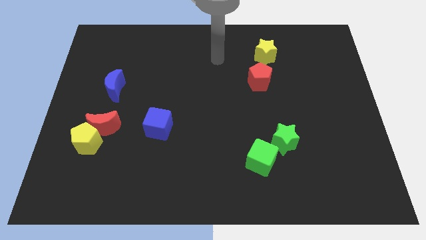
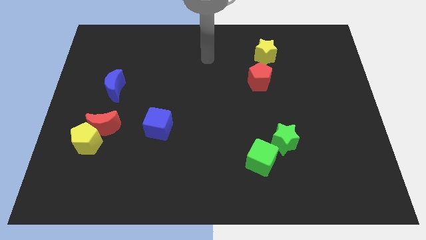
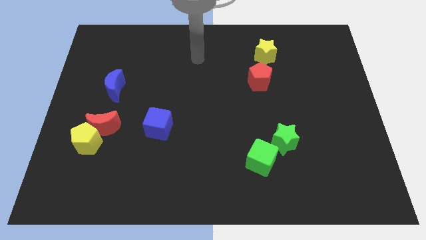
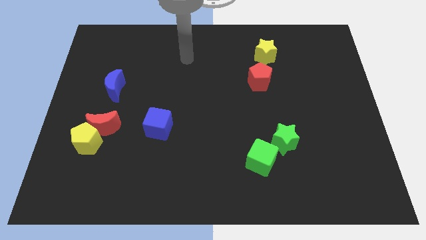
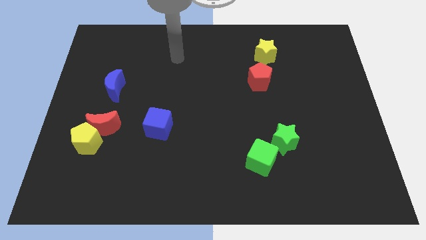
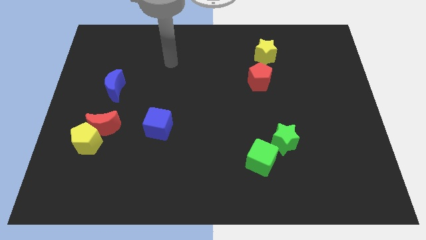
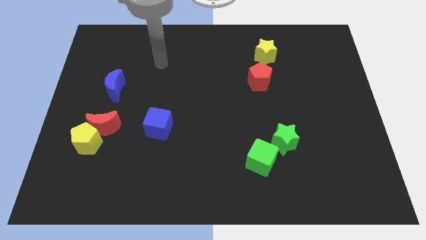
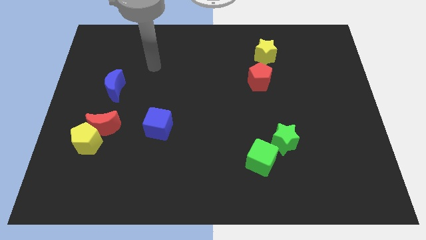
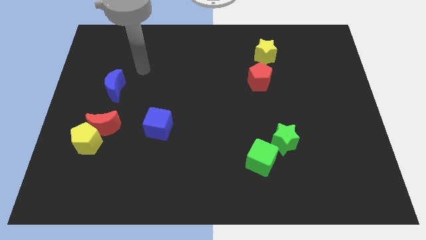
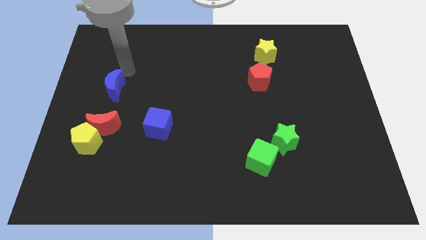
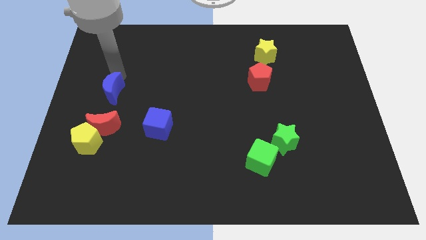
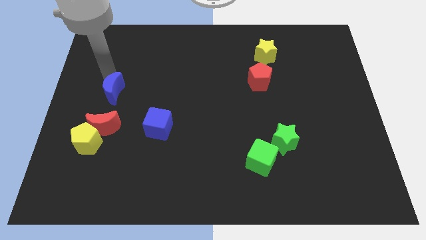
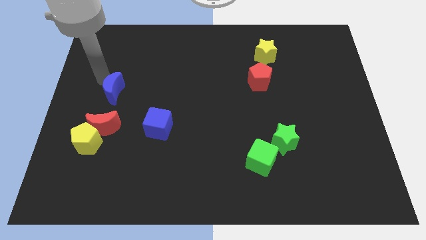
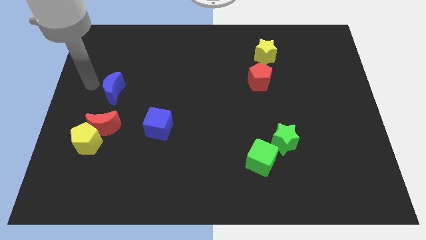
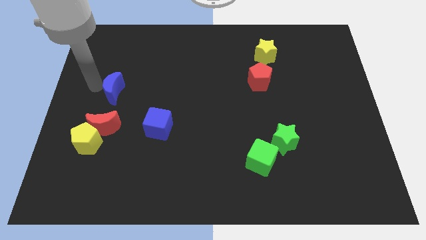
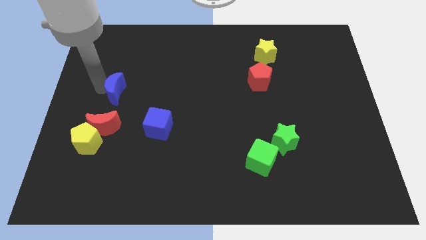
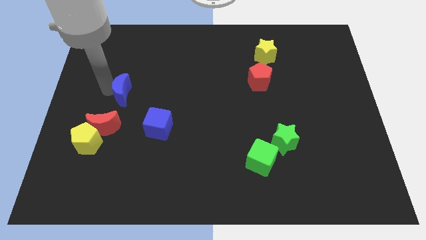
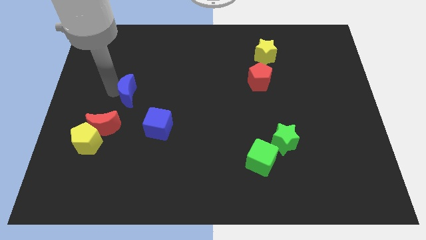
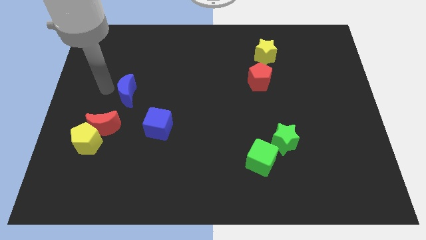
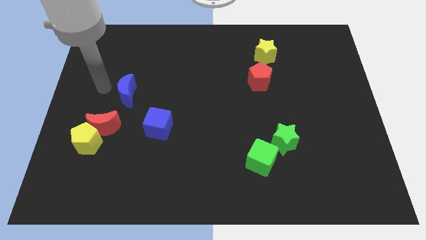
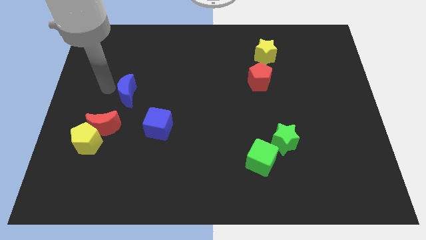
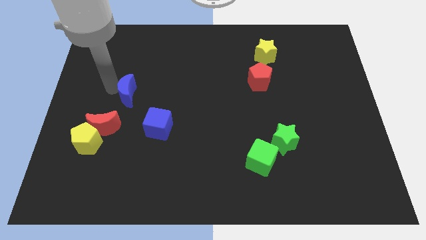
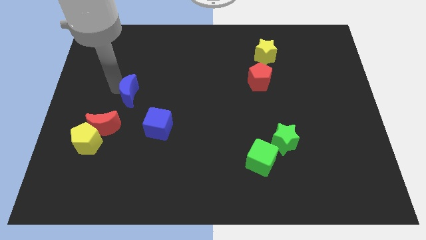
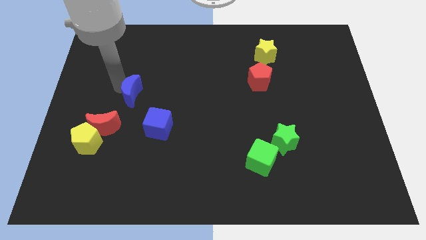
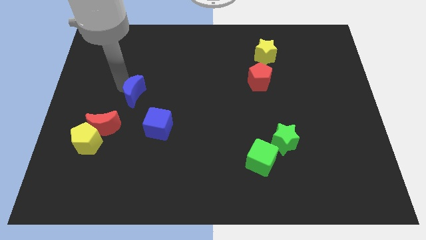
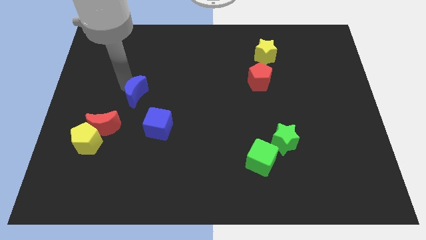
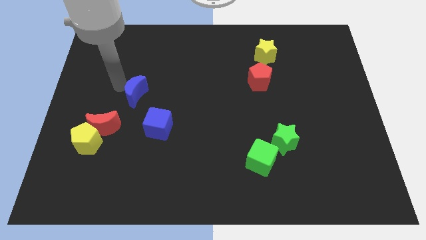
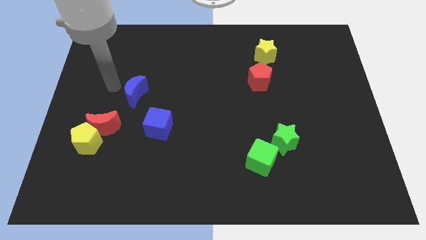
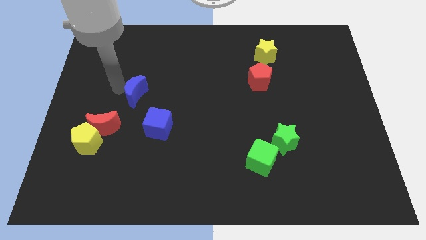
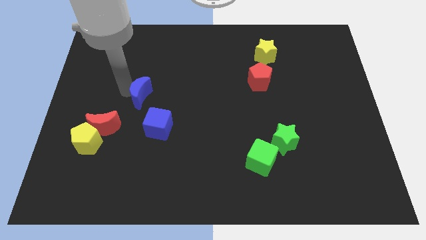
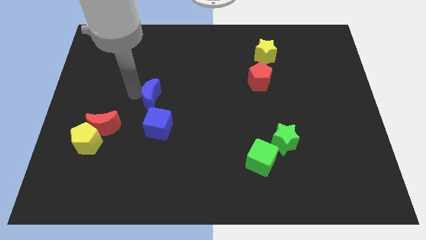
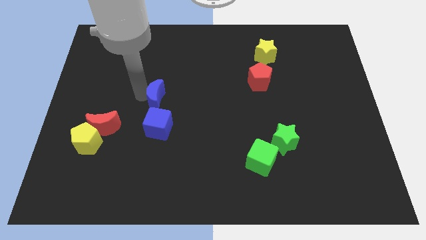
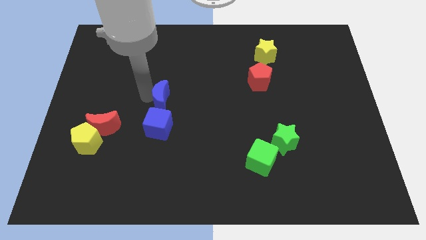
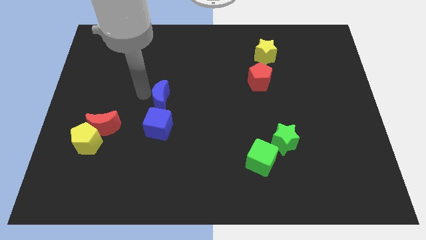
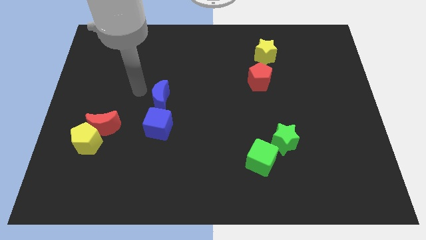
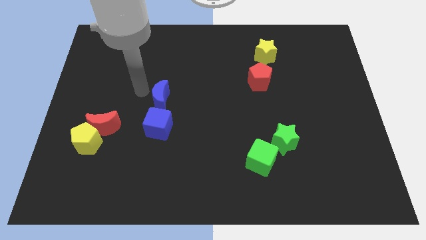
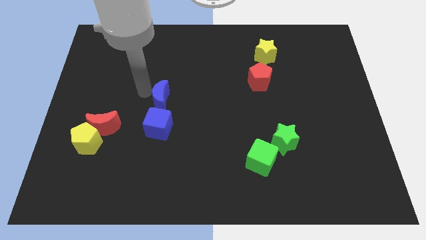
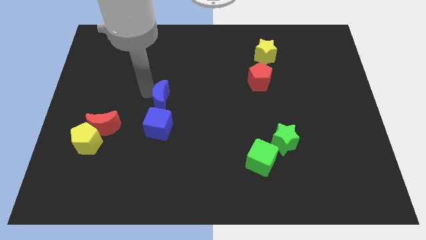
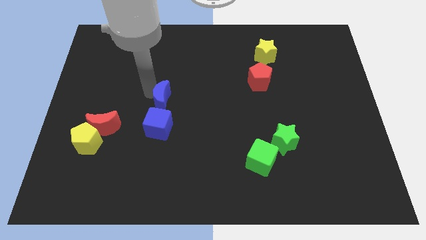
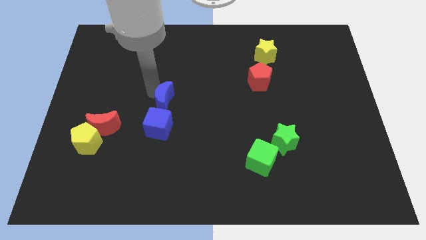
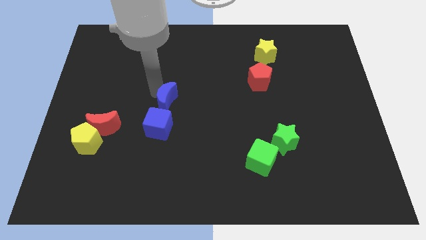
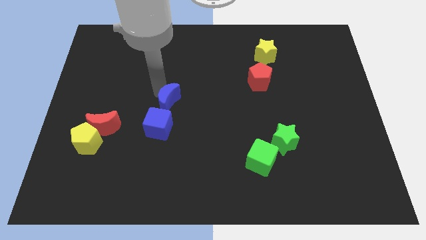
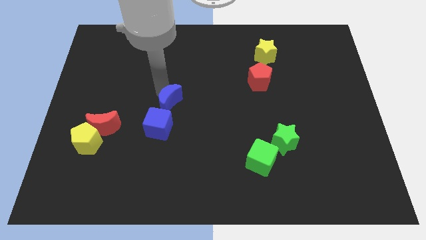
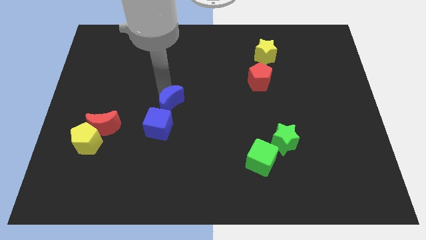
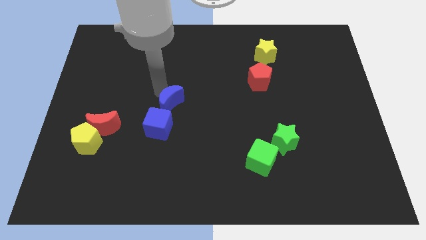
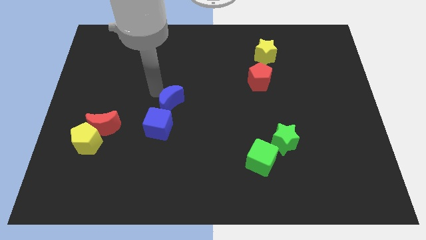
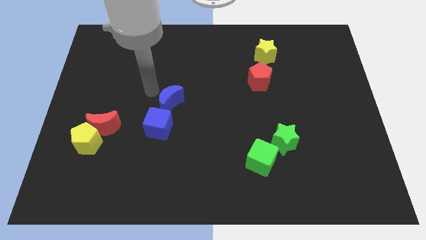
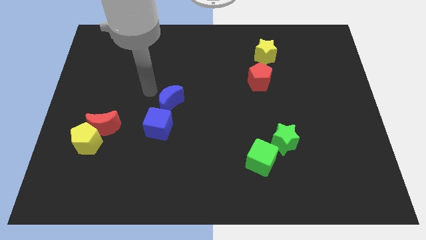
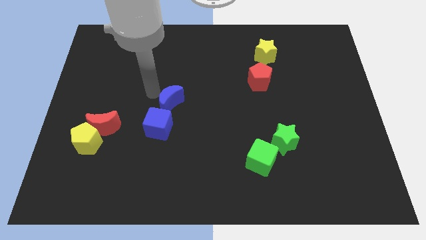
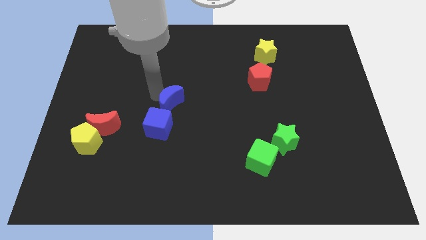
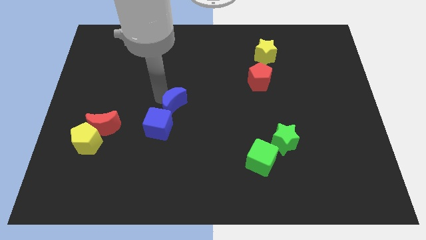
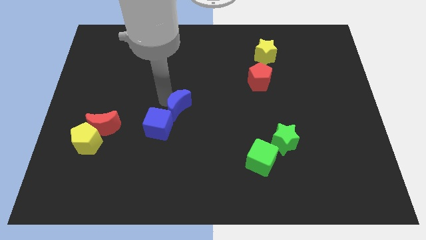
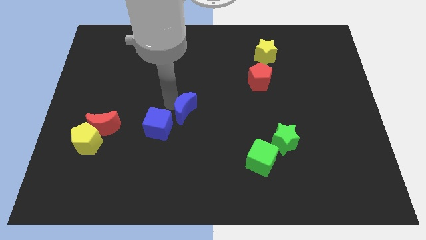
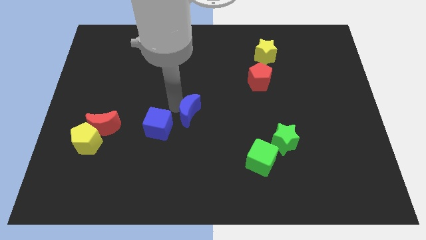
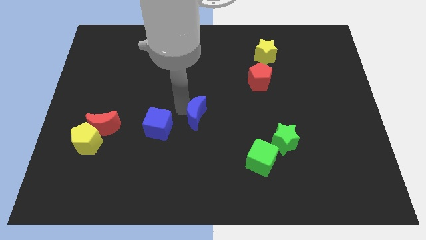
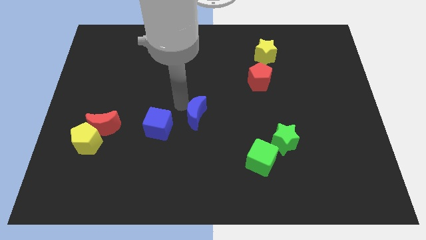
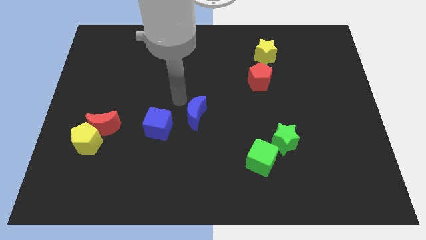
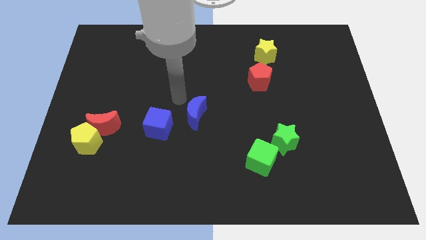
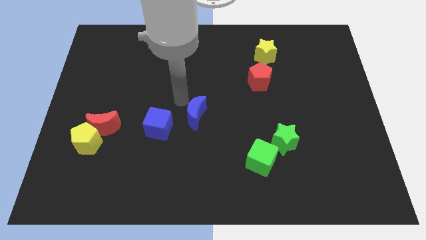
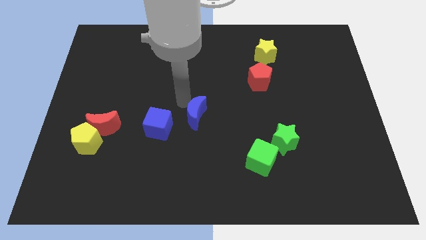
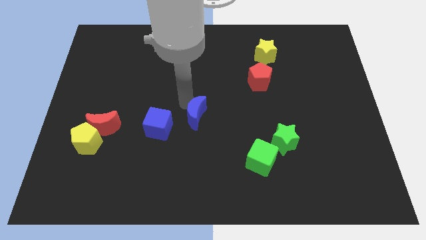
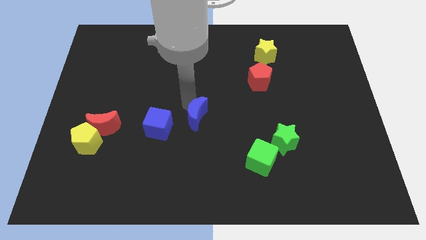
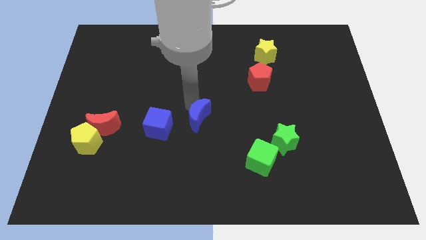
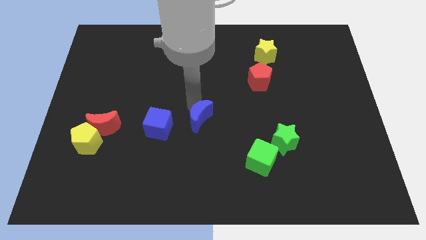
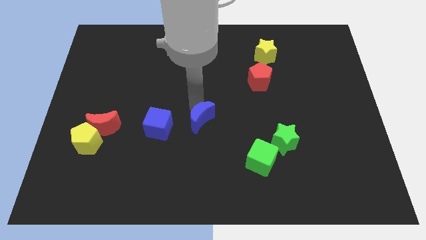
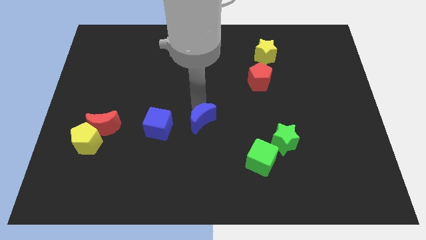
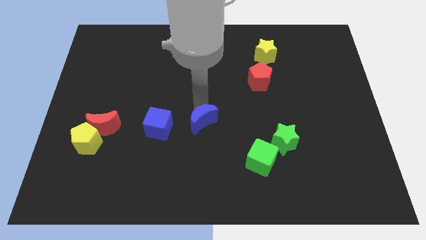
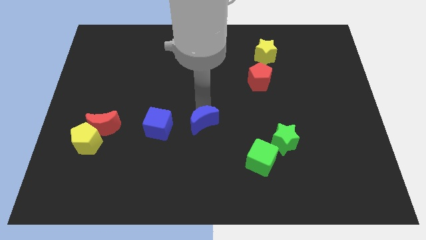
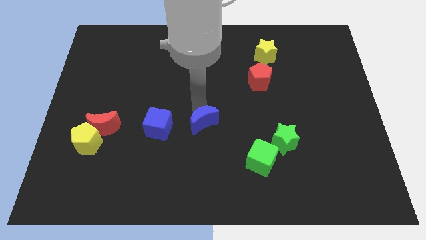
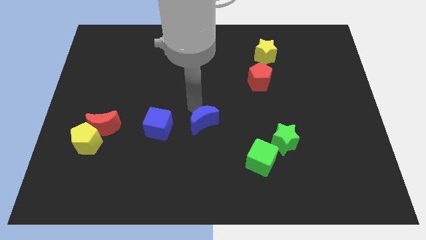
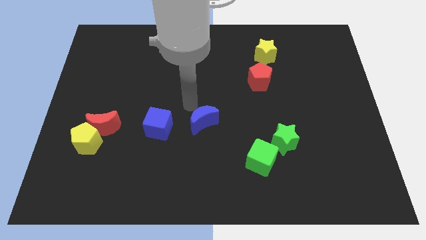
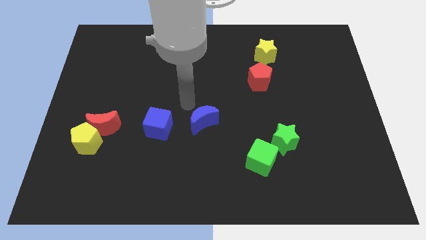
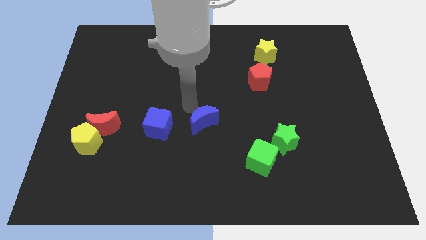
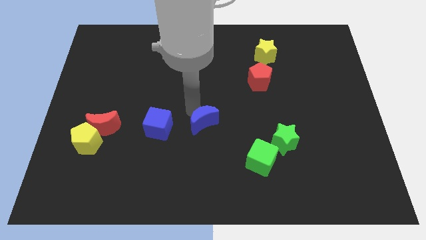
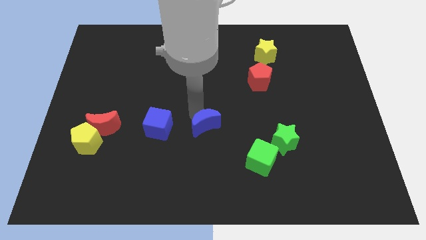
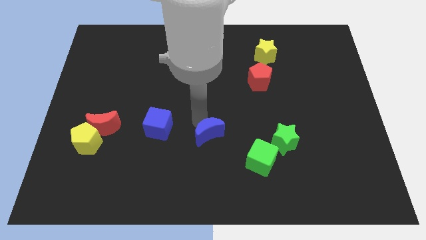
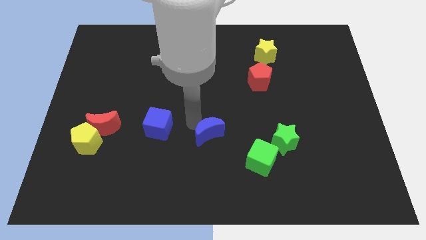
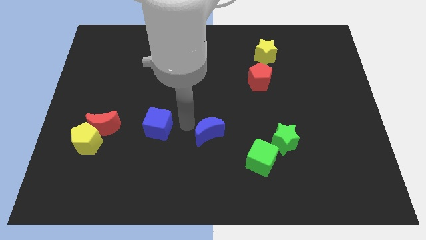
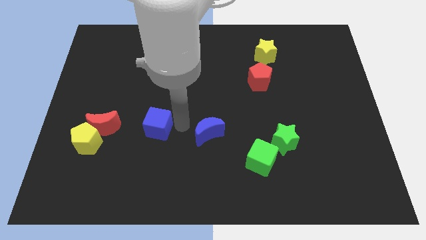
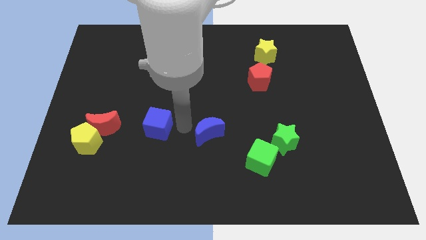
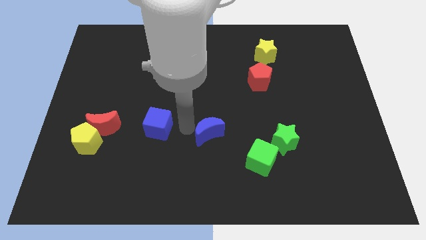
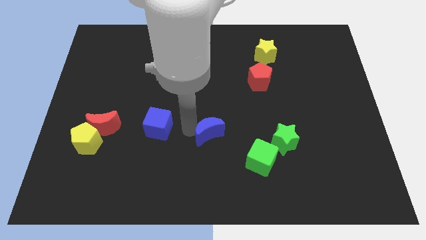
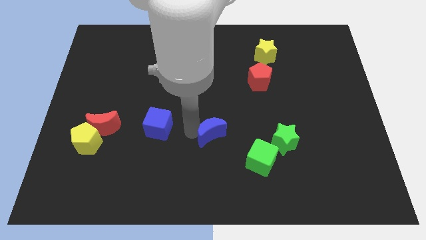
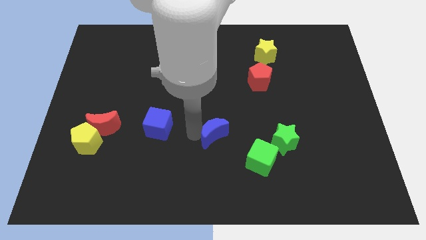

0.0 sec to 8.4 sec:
put the blue moon left of the green star
